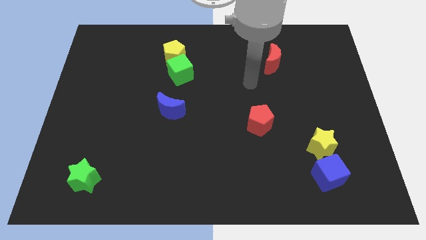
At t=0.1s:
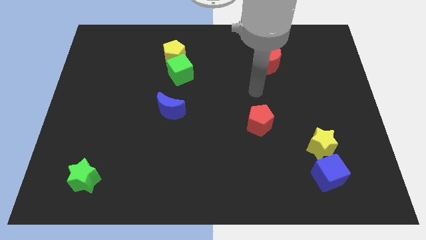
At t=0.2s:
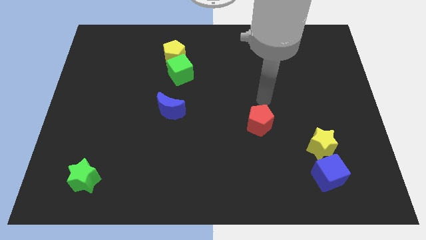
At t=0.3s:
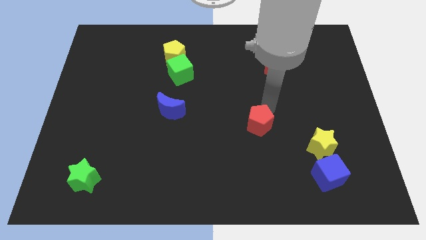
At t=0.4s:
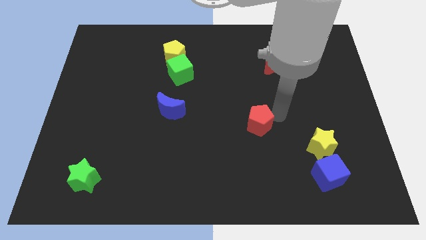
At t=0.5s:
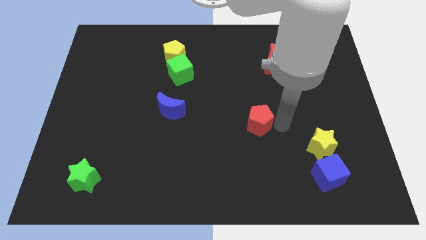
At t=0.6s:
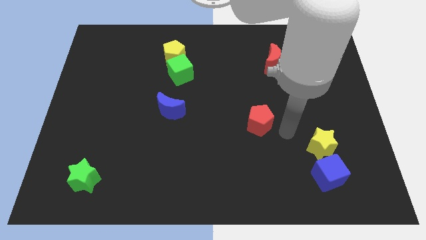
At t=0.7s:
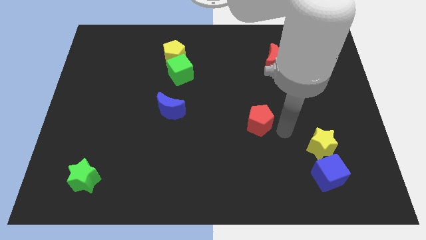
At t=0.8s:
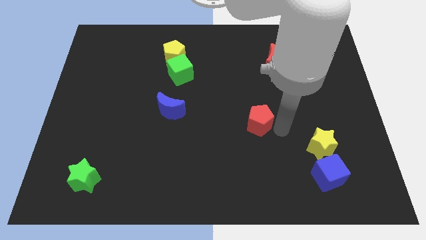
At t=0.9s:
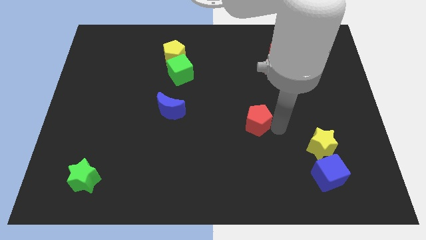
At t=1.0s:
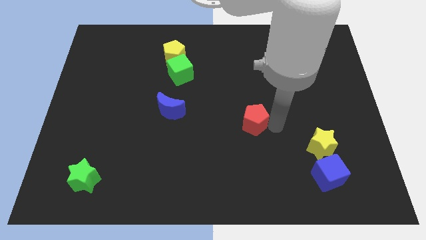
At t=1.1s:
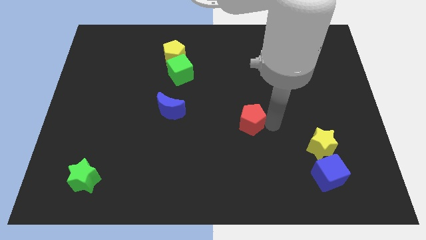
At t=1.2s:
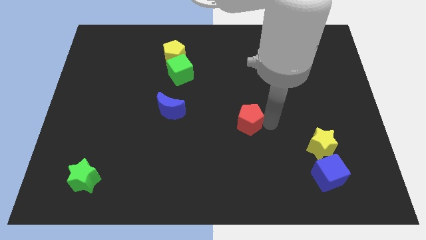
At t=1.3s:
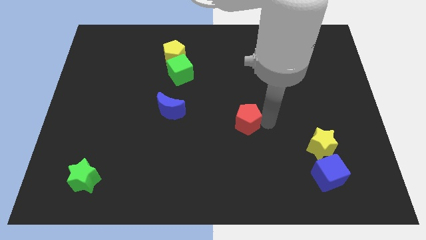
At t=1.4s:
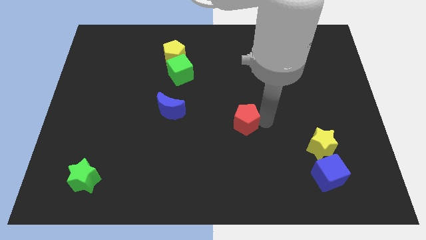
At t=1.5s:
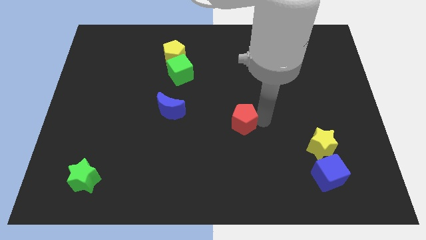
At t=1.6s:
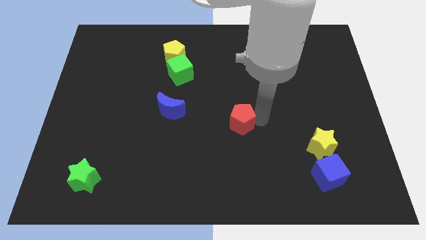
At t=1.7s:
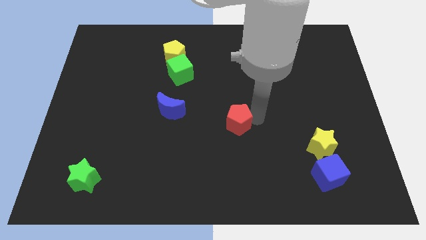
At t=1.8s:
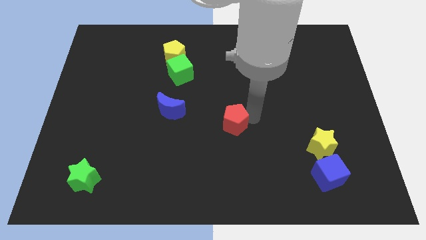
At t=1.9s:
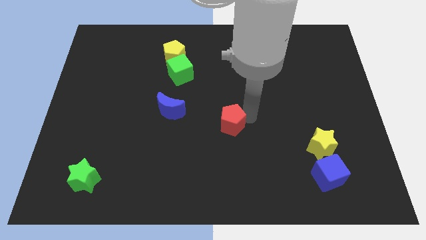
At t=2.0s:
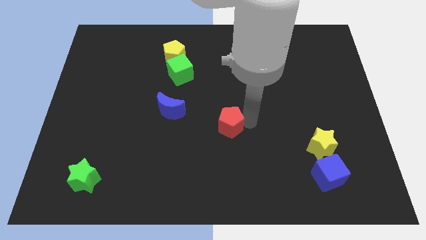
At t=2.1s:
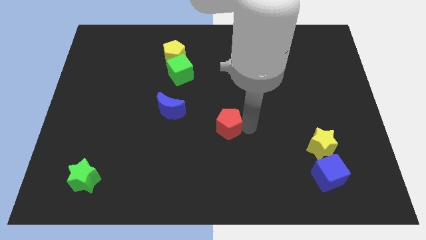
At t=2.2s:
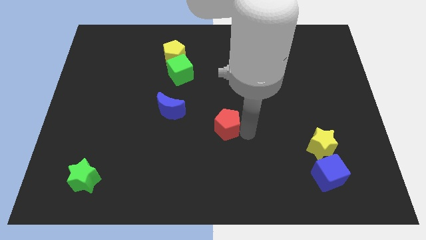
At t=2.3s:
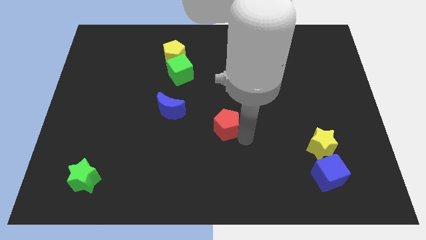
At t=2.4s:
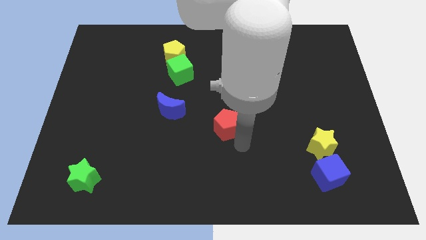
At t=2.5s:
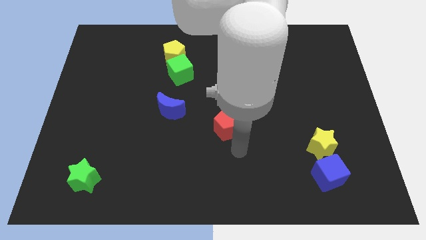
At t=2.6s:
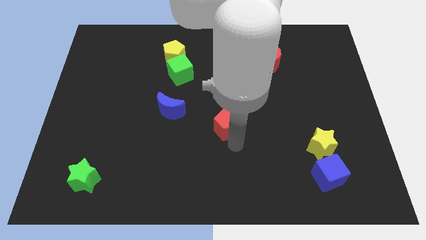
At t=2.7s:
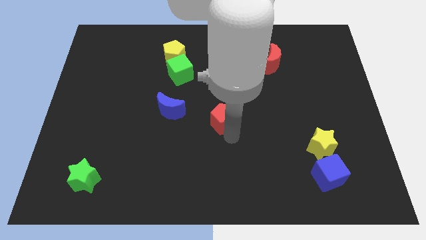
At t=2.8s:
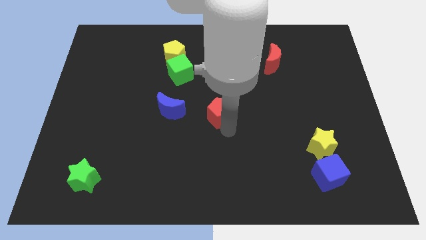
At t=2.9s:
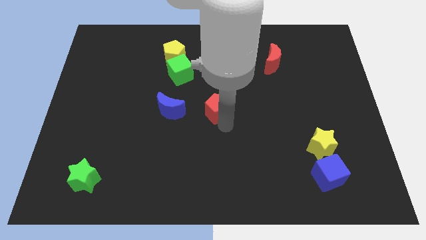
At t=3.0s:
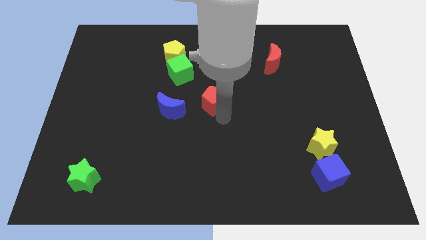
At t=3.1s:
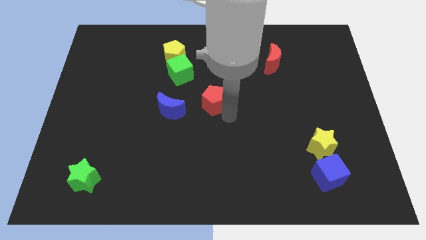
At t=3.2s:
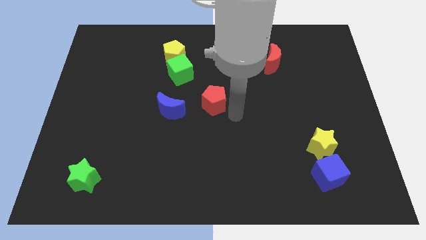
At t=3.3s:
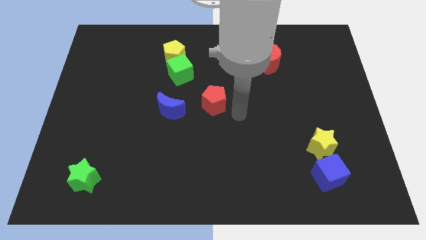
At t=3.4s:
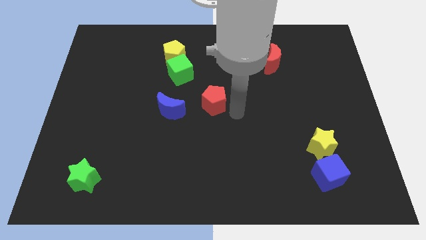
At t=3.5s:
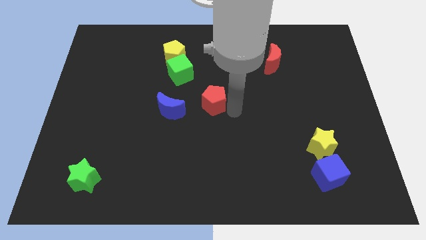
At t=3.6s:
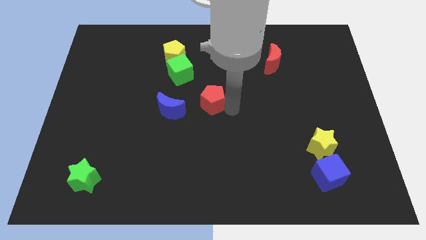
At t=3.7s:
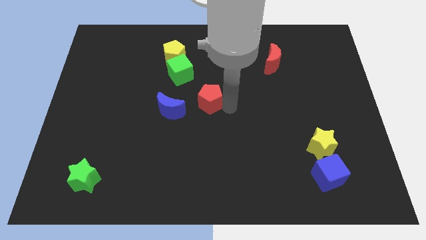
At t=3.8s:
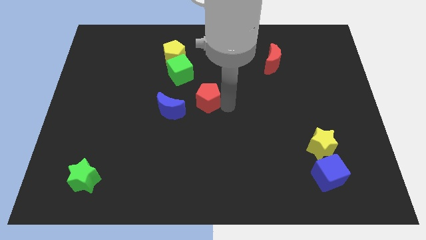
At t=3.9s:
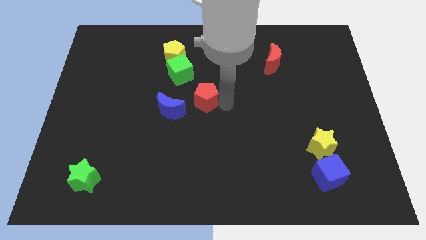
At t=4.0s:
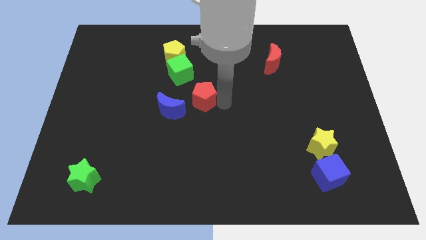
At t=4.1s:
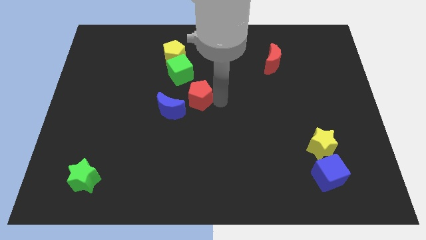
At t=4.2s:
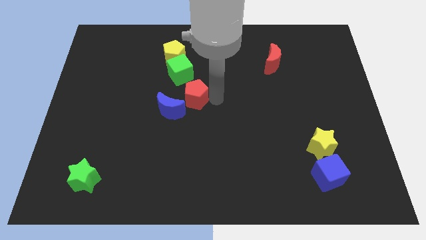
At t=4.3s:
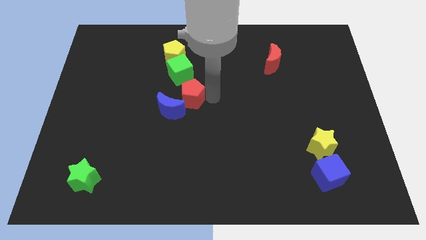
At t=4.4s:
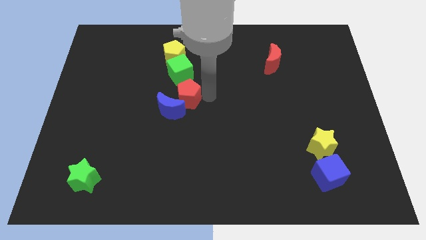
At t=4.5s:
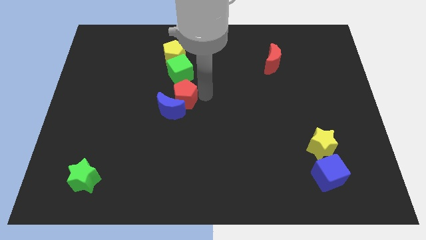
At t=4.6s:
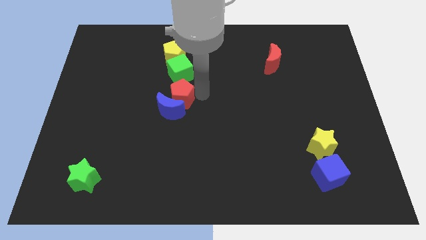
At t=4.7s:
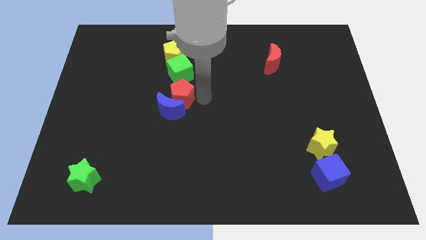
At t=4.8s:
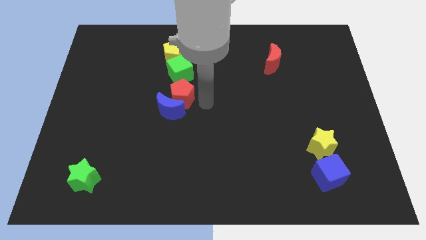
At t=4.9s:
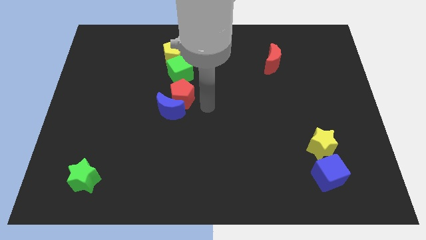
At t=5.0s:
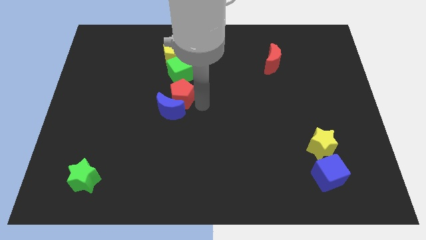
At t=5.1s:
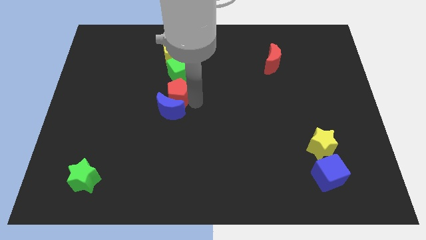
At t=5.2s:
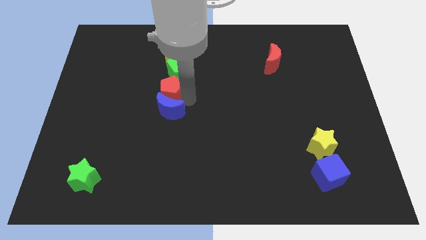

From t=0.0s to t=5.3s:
move the red pentagon to the bottom left of the green cube

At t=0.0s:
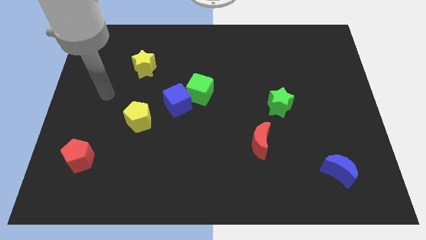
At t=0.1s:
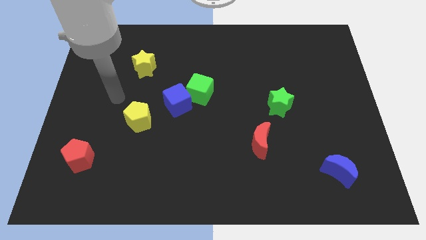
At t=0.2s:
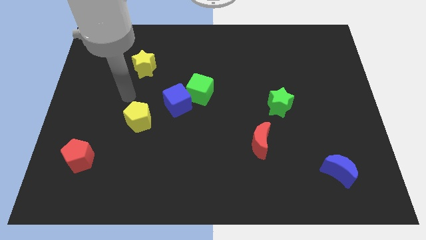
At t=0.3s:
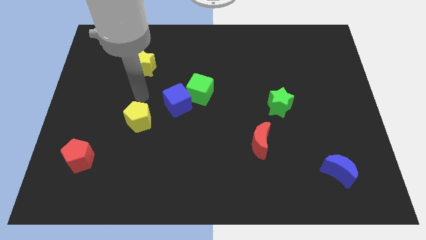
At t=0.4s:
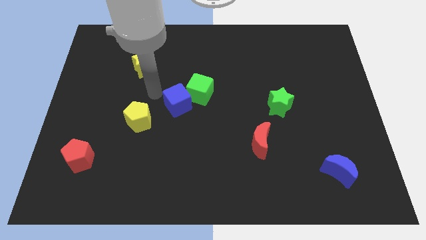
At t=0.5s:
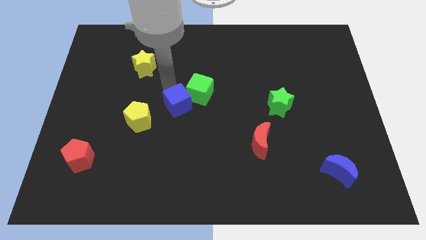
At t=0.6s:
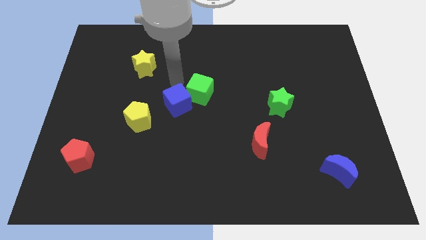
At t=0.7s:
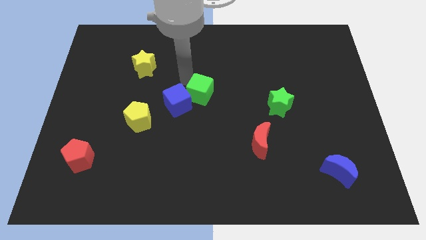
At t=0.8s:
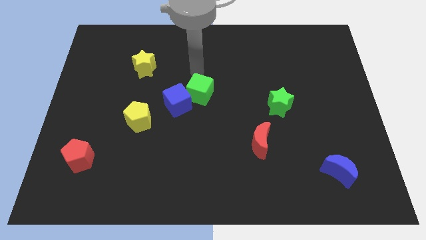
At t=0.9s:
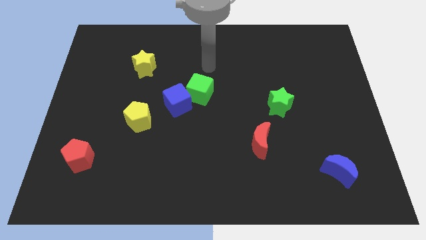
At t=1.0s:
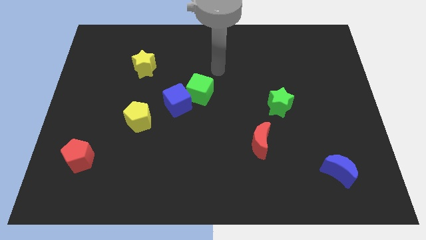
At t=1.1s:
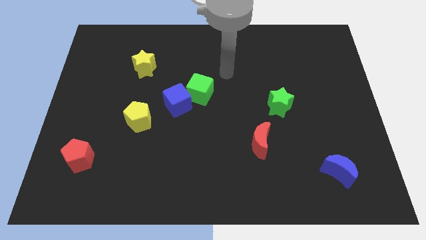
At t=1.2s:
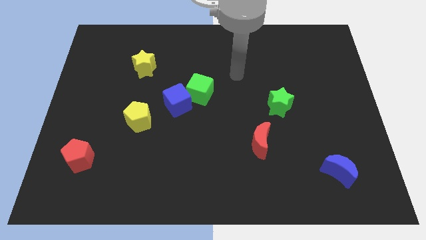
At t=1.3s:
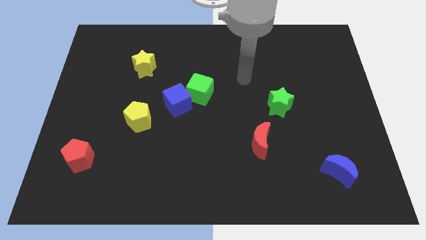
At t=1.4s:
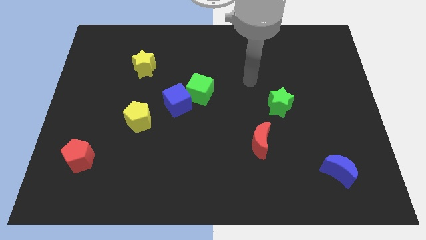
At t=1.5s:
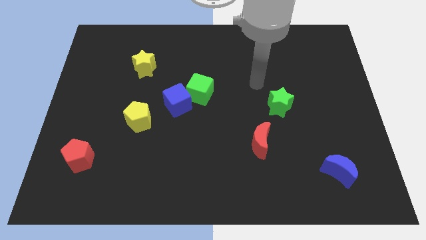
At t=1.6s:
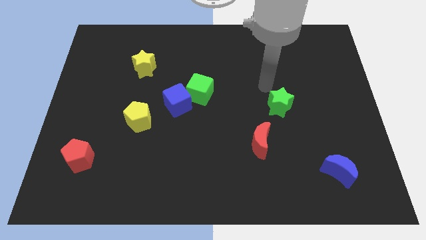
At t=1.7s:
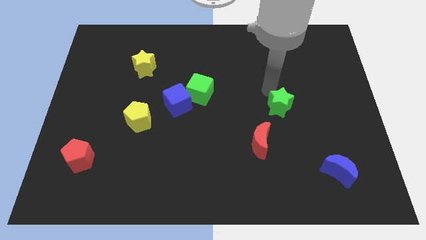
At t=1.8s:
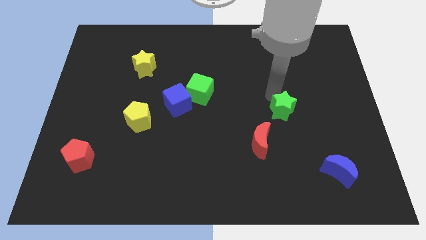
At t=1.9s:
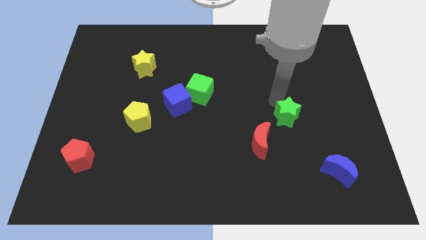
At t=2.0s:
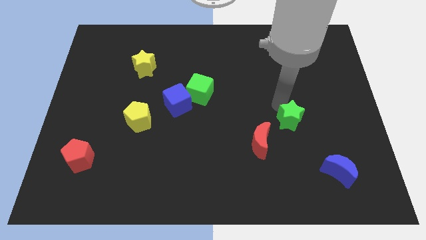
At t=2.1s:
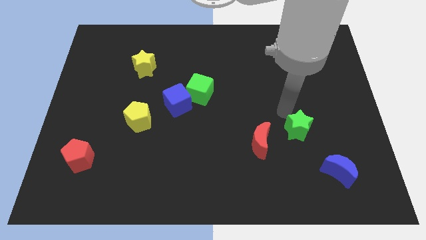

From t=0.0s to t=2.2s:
slide the green star diagonally up and to the left of the blue moon
